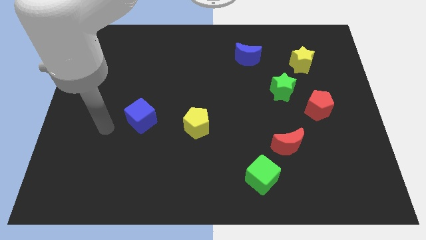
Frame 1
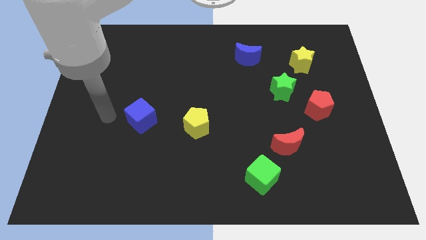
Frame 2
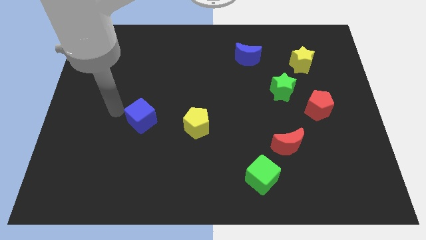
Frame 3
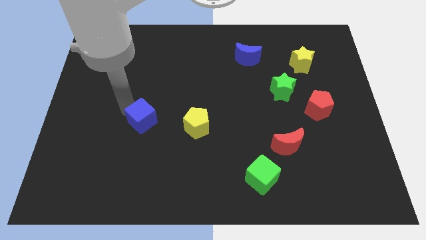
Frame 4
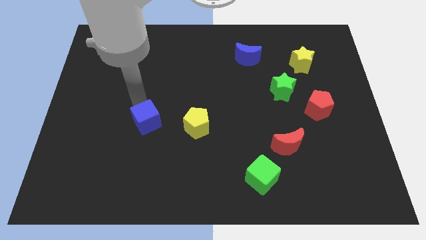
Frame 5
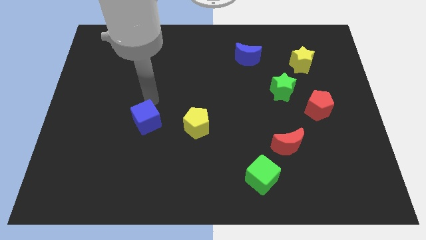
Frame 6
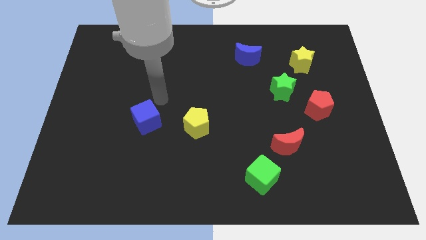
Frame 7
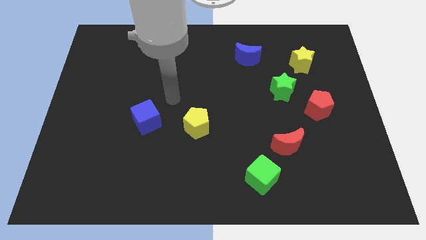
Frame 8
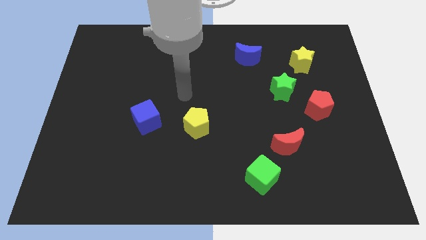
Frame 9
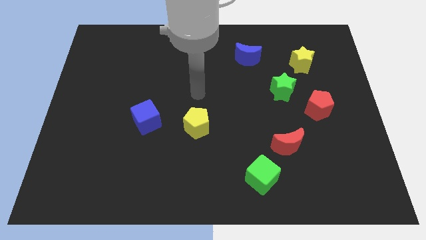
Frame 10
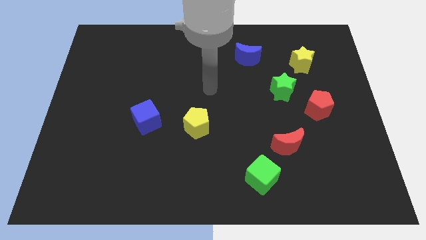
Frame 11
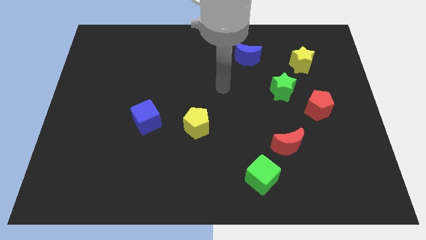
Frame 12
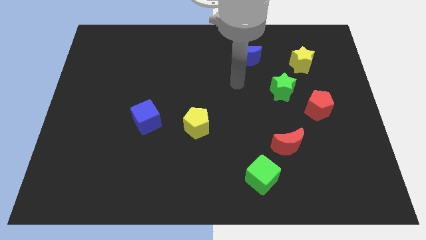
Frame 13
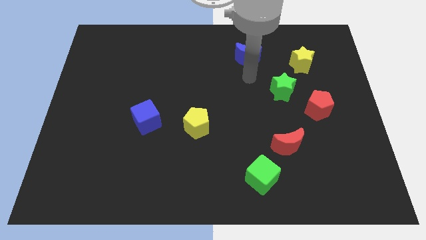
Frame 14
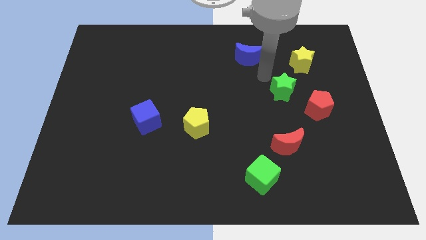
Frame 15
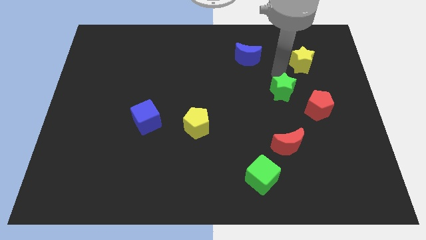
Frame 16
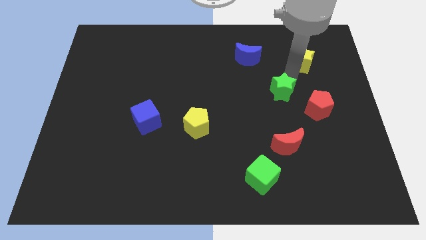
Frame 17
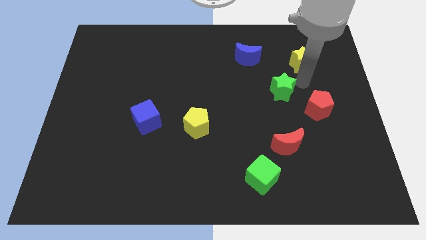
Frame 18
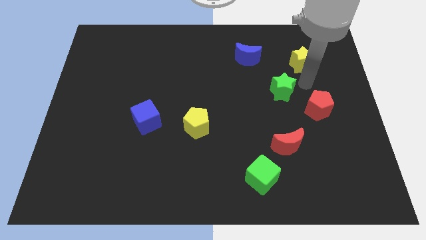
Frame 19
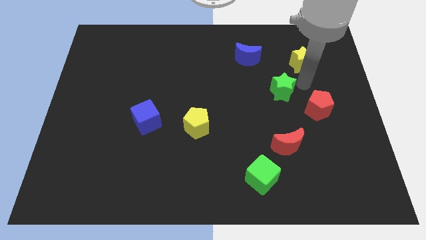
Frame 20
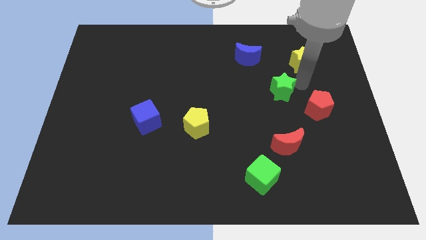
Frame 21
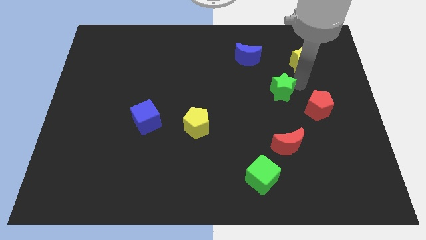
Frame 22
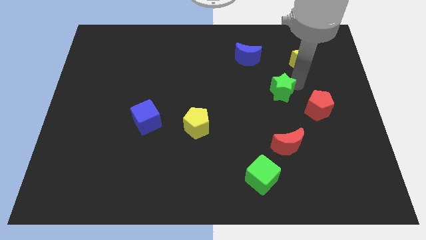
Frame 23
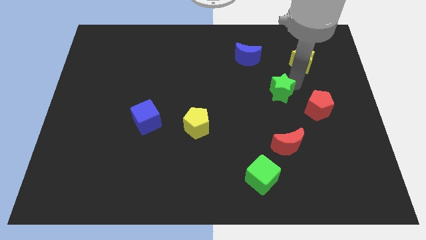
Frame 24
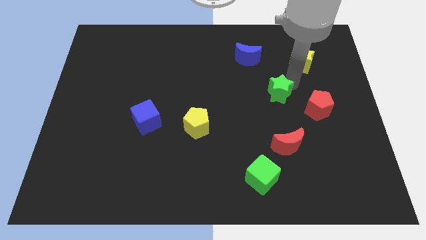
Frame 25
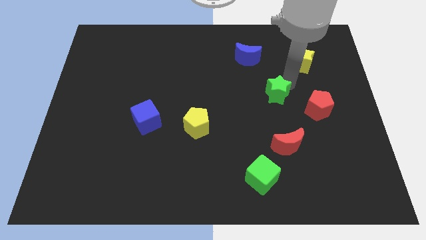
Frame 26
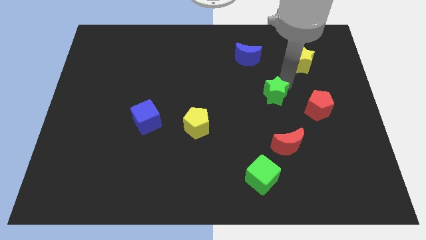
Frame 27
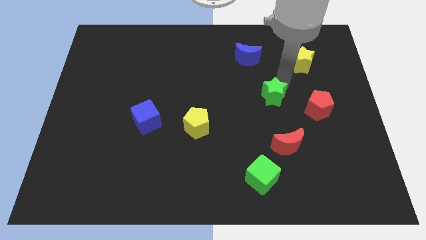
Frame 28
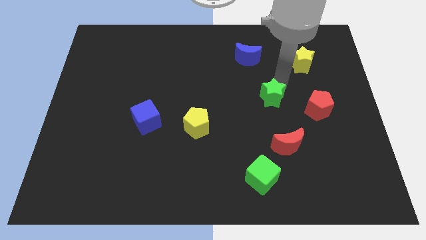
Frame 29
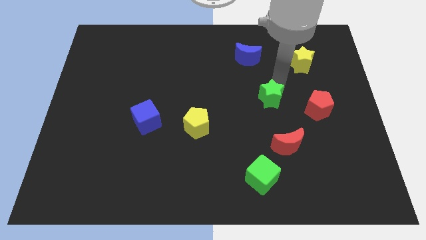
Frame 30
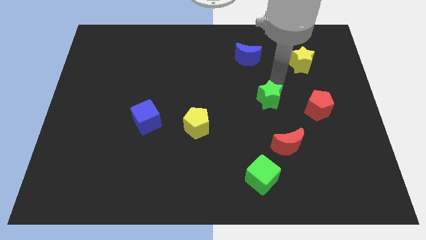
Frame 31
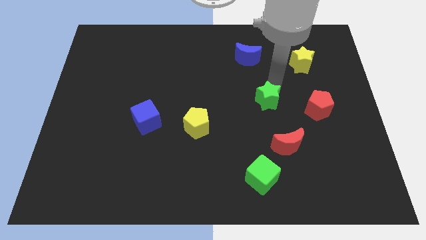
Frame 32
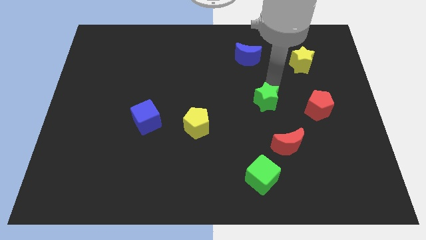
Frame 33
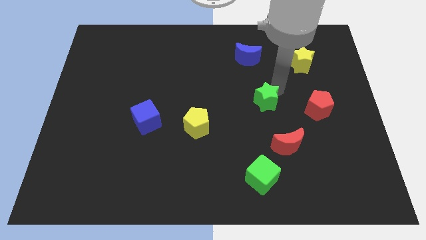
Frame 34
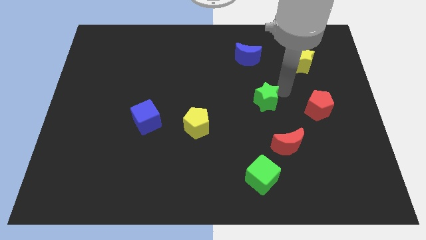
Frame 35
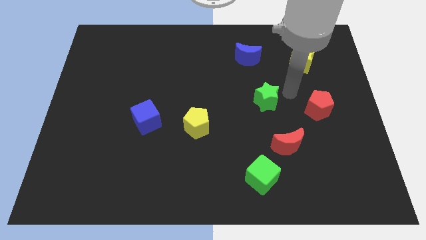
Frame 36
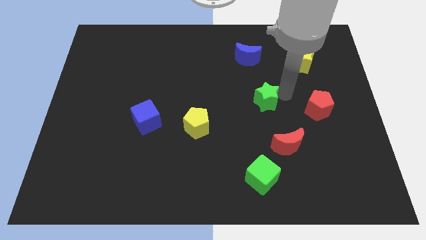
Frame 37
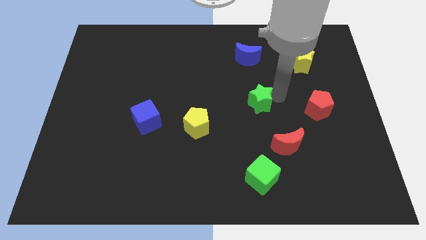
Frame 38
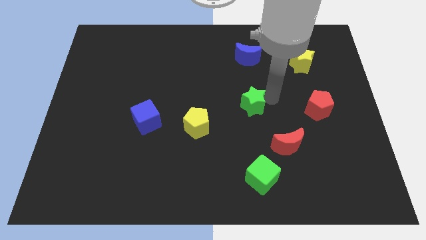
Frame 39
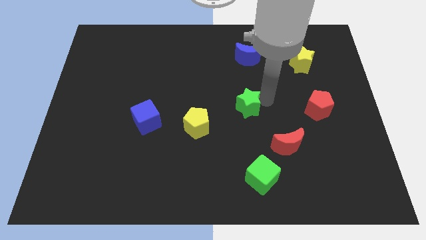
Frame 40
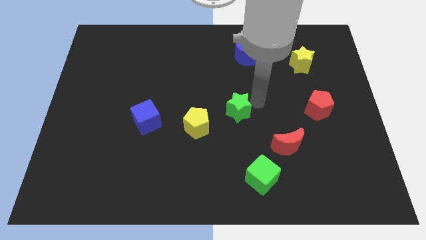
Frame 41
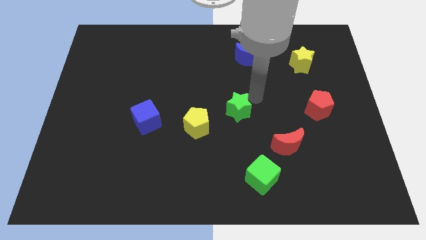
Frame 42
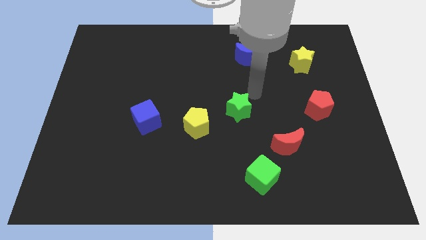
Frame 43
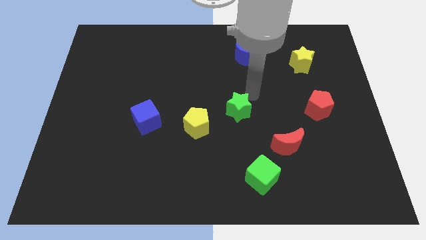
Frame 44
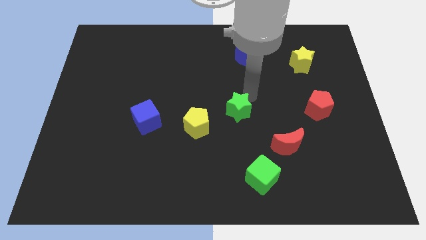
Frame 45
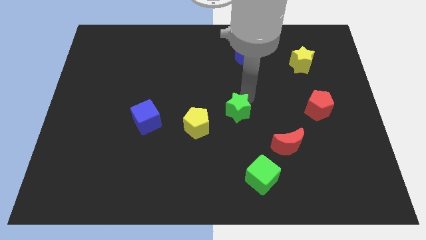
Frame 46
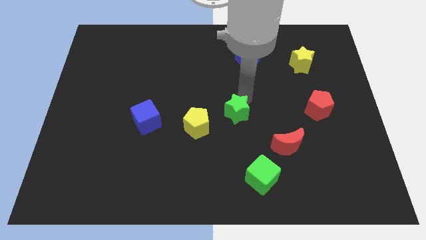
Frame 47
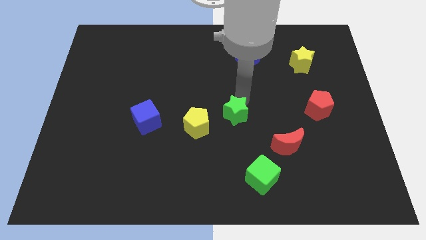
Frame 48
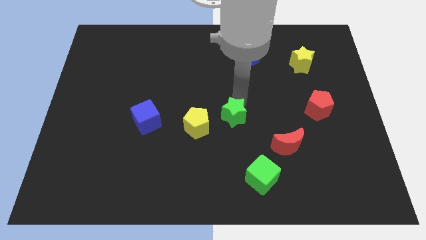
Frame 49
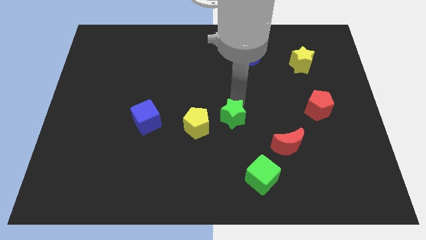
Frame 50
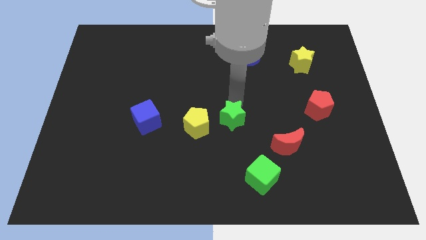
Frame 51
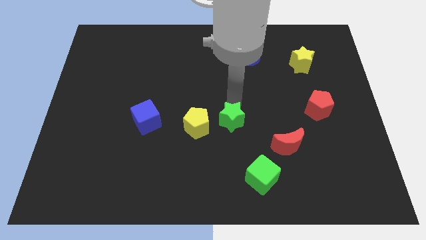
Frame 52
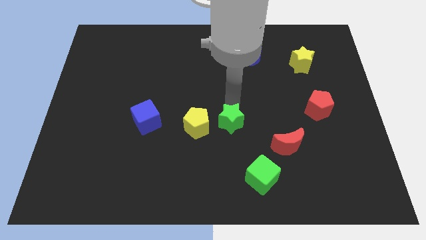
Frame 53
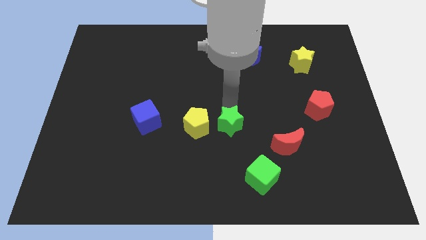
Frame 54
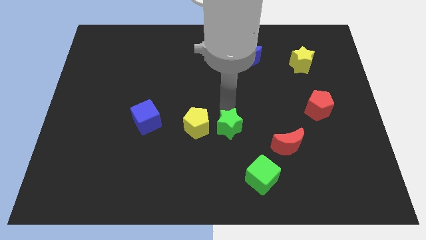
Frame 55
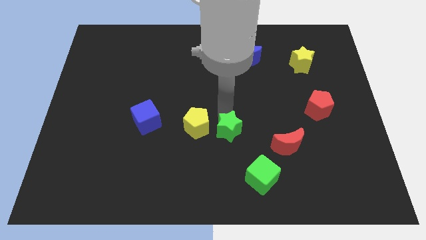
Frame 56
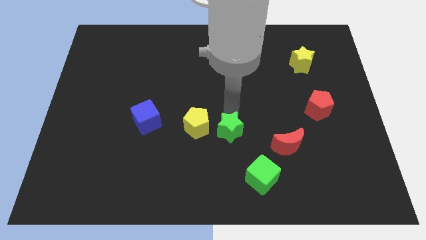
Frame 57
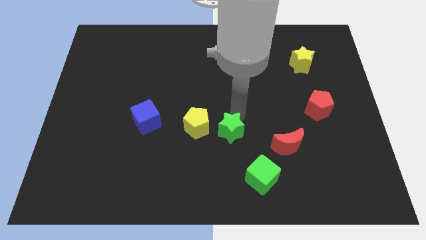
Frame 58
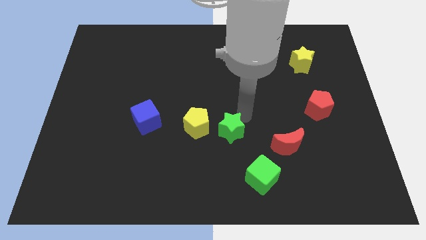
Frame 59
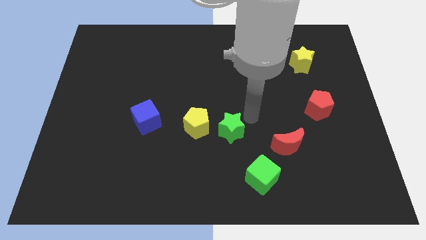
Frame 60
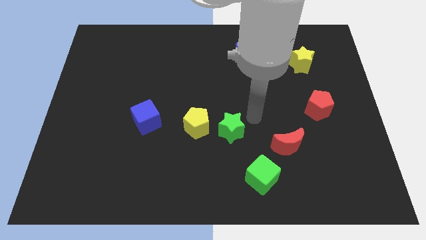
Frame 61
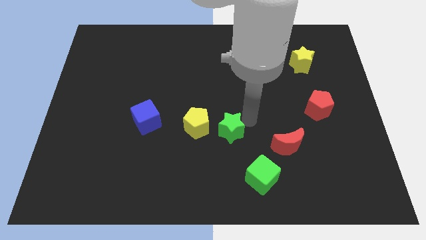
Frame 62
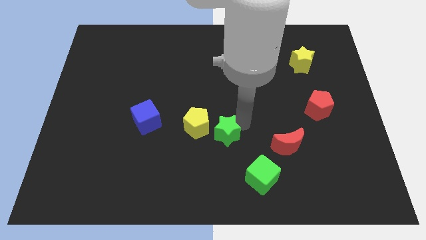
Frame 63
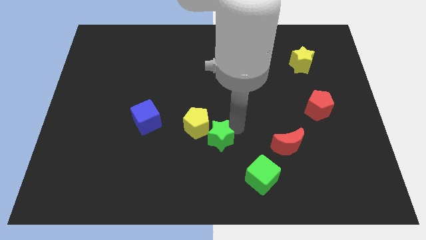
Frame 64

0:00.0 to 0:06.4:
move the green star diagonally down and to the left

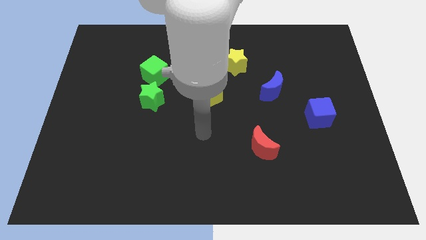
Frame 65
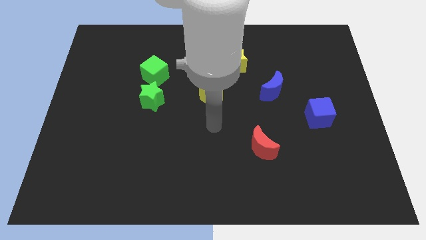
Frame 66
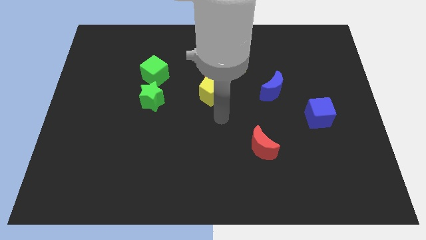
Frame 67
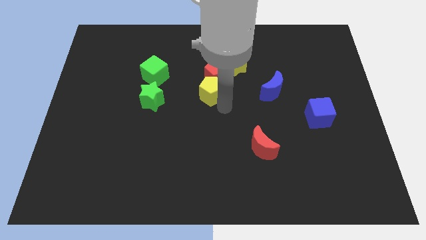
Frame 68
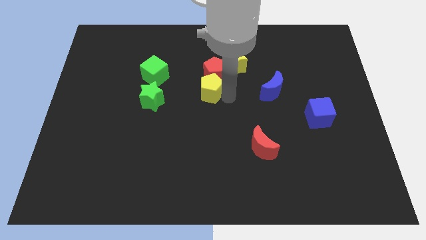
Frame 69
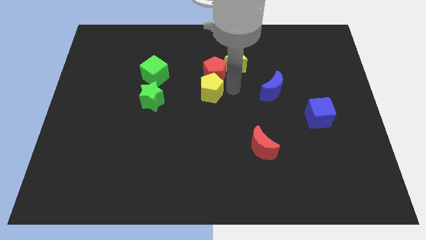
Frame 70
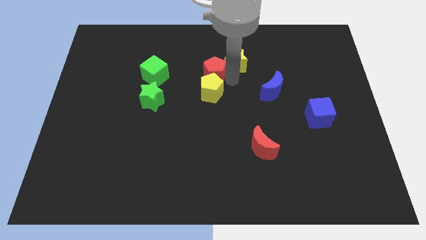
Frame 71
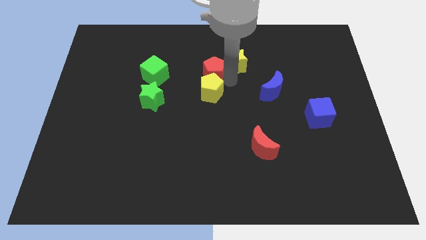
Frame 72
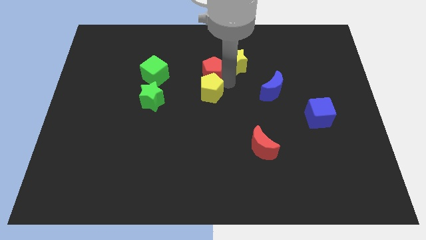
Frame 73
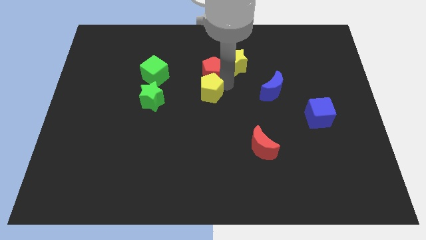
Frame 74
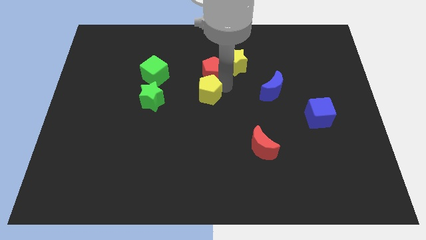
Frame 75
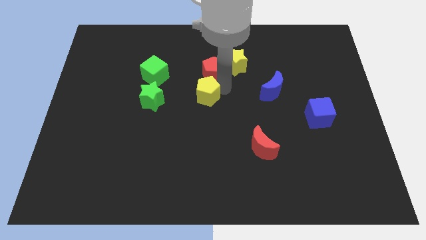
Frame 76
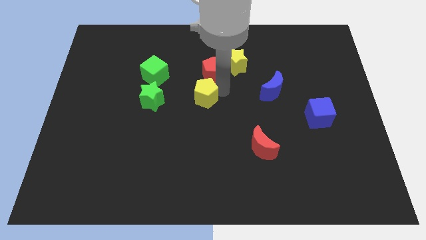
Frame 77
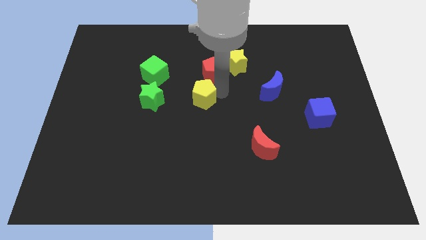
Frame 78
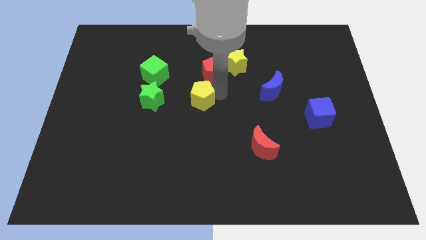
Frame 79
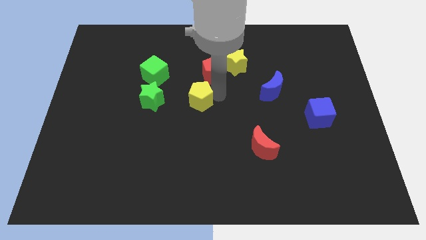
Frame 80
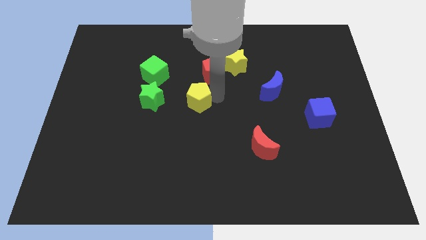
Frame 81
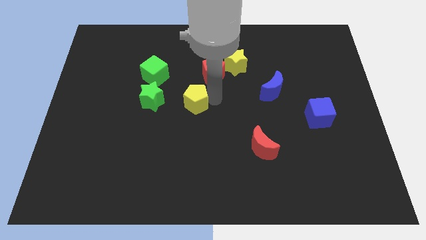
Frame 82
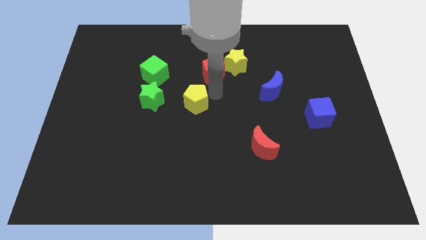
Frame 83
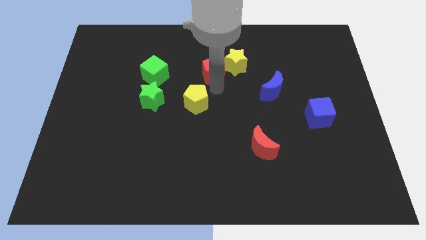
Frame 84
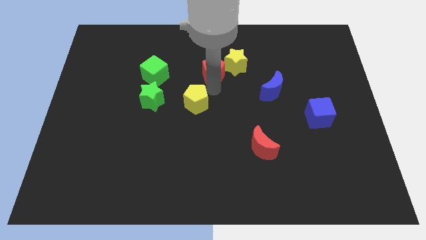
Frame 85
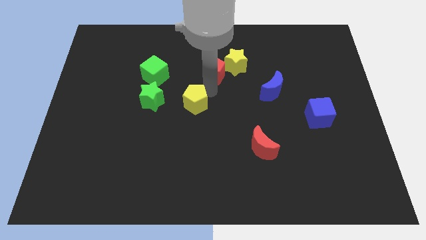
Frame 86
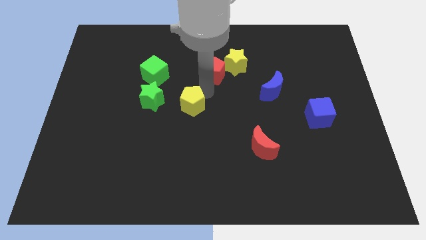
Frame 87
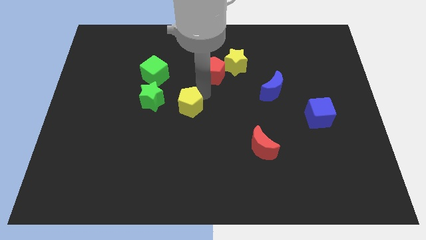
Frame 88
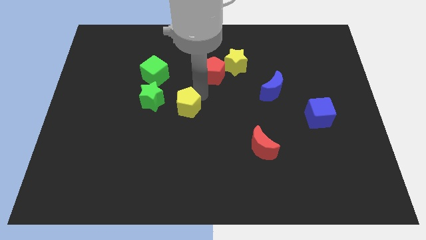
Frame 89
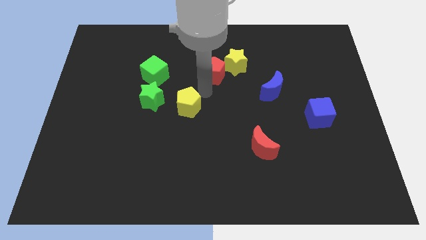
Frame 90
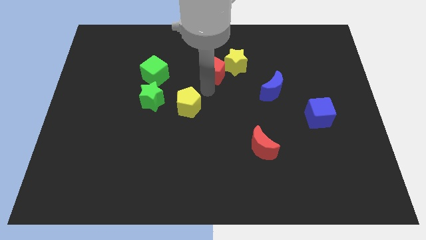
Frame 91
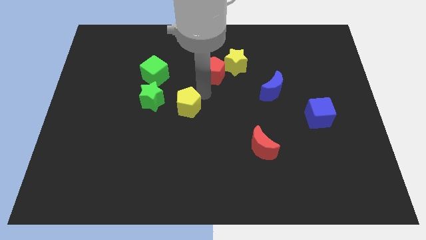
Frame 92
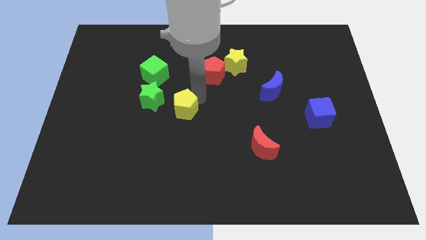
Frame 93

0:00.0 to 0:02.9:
move the yellow pentagon a bit down and left diagonally
